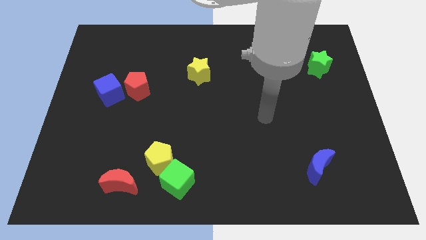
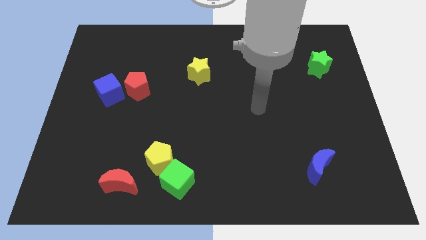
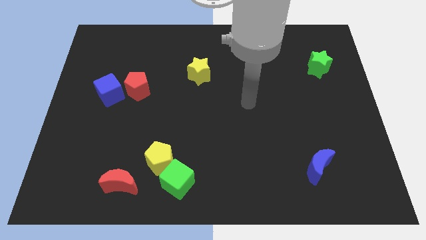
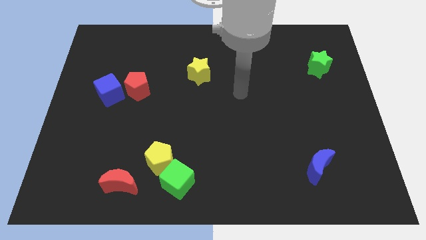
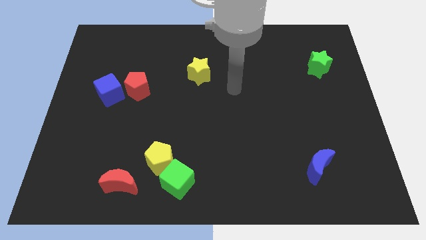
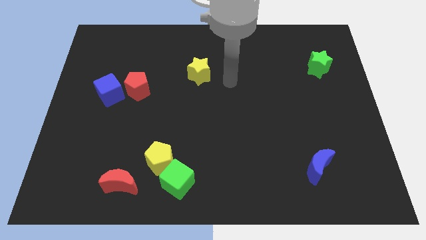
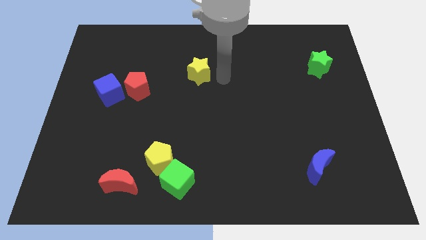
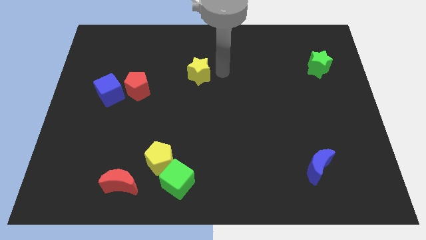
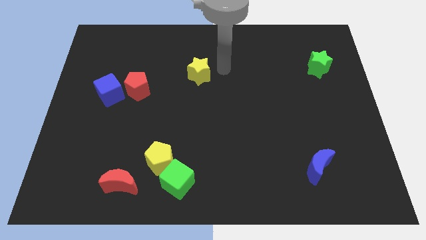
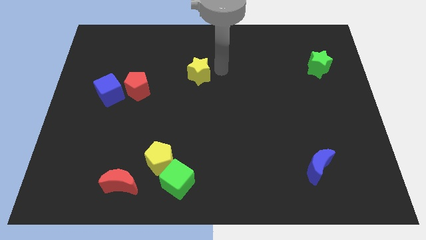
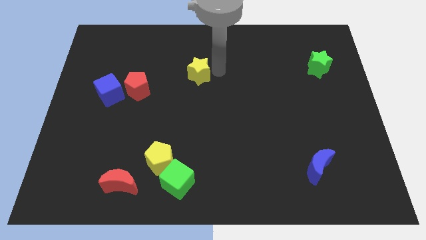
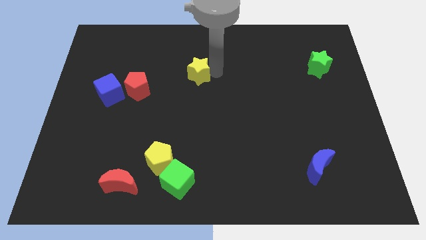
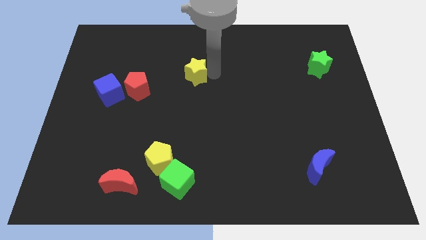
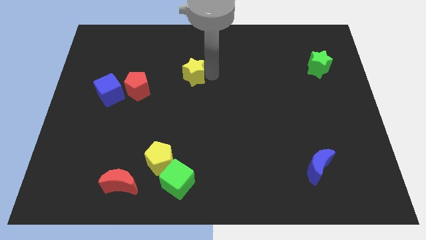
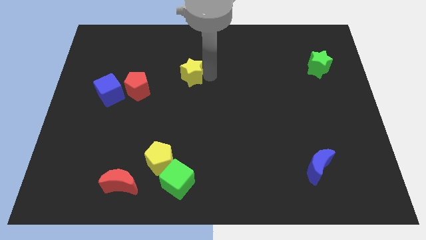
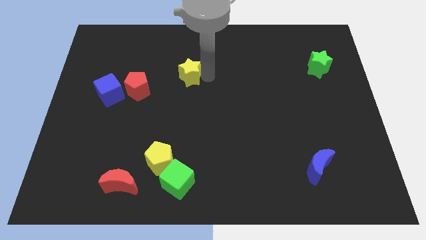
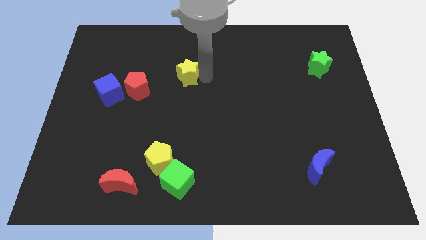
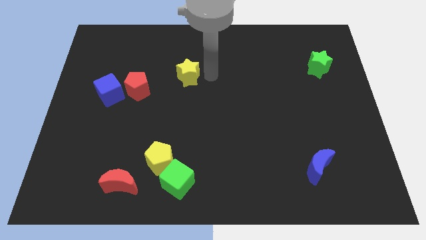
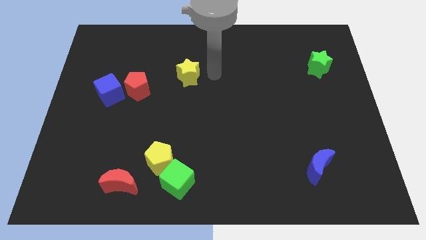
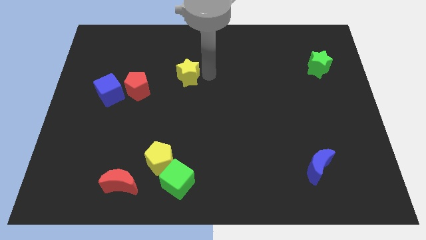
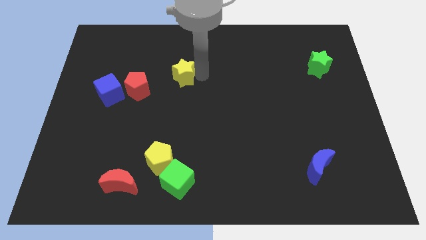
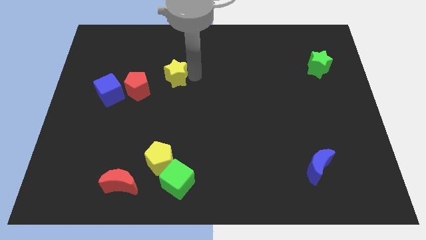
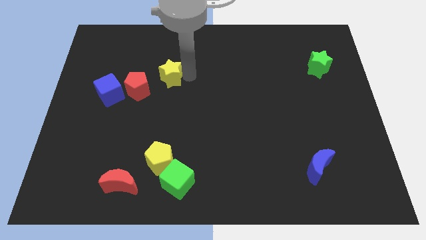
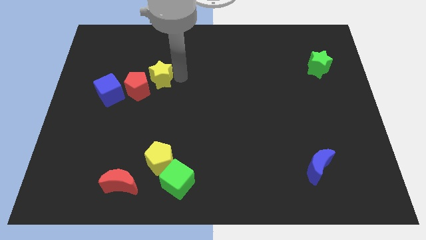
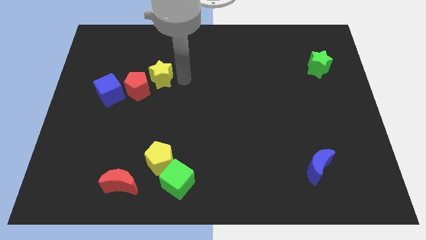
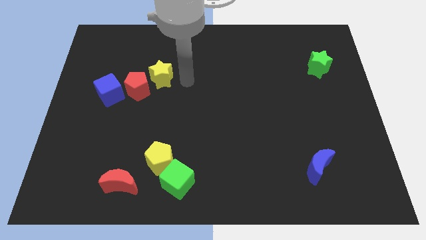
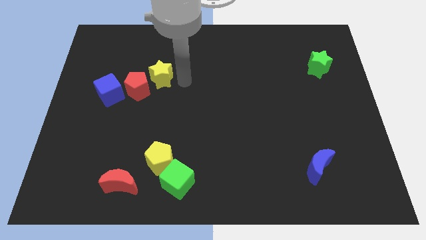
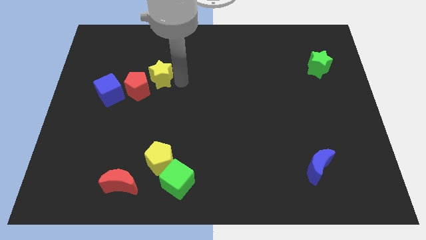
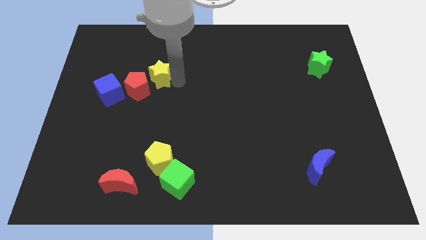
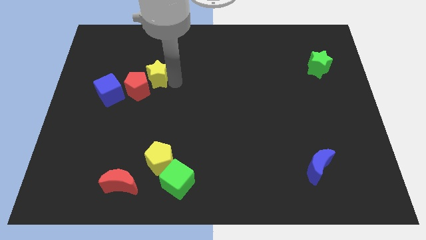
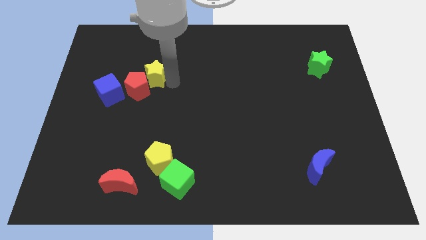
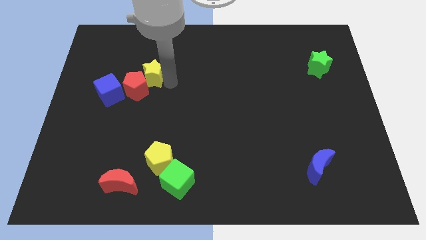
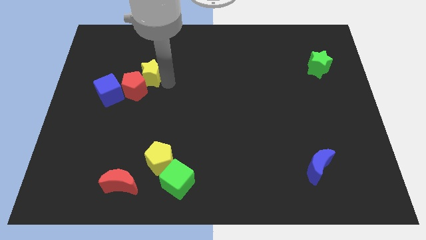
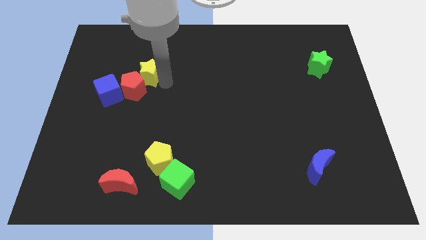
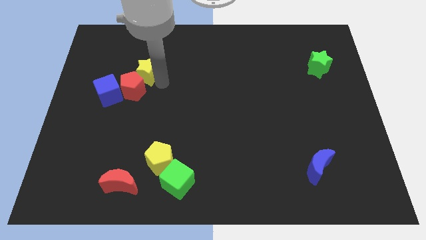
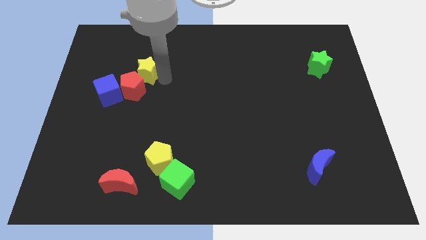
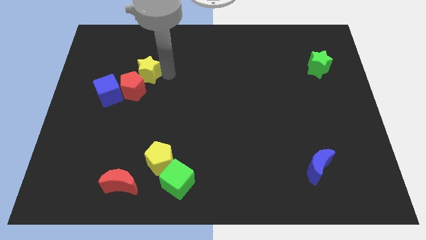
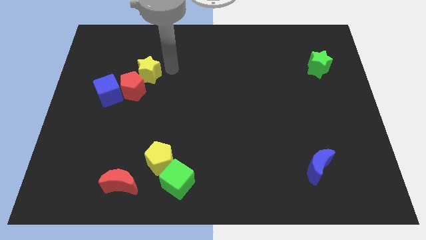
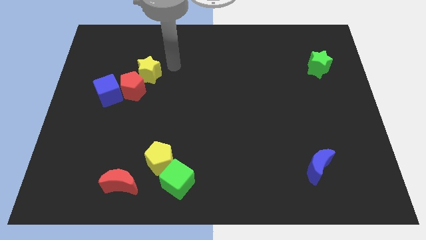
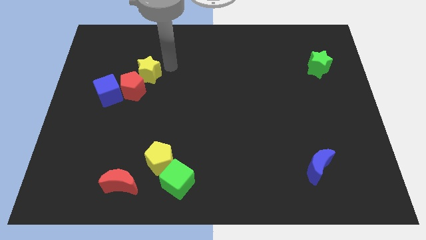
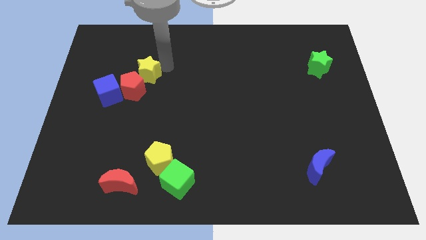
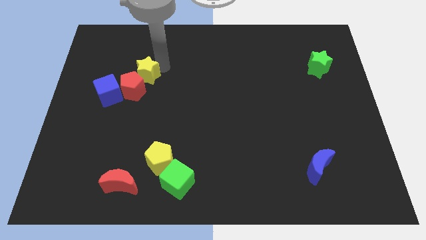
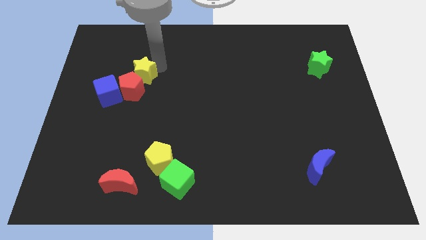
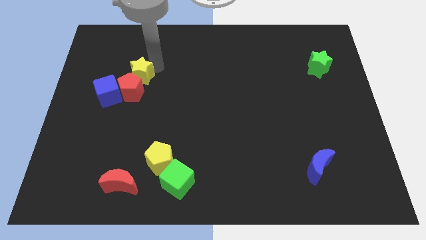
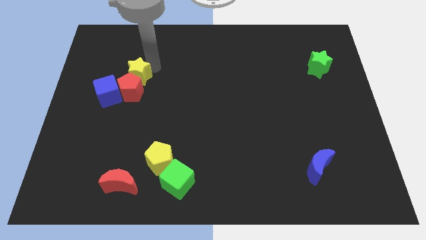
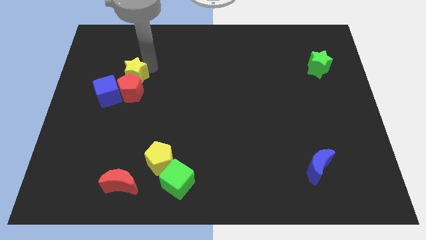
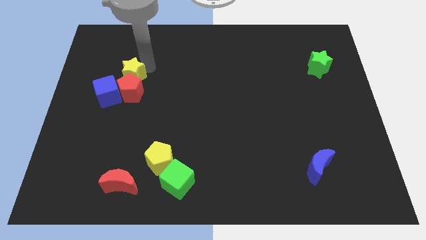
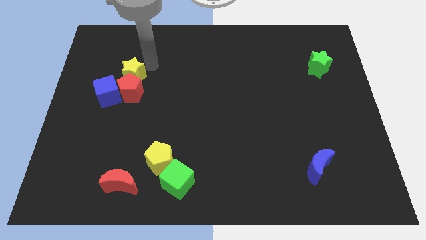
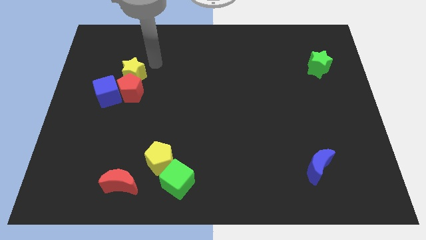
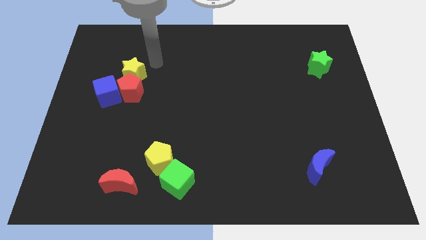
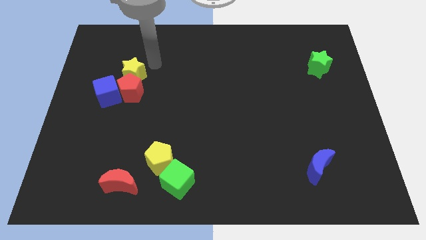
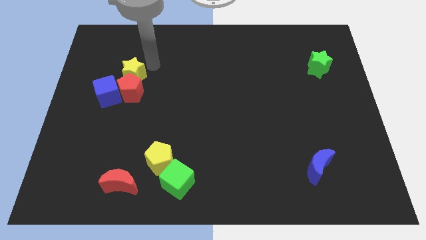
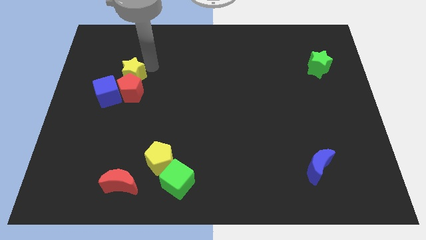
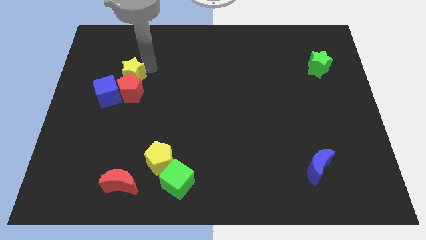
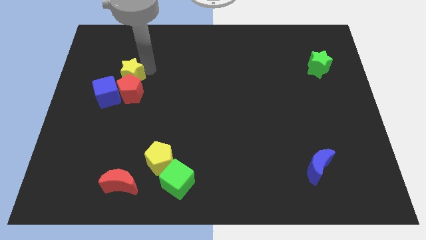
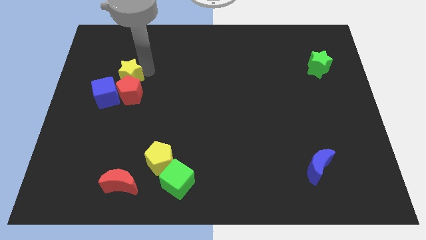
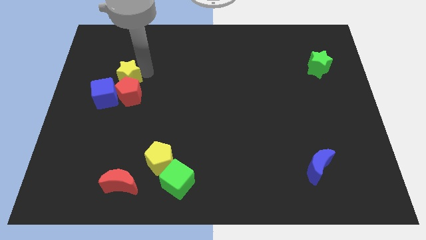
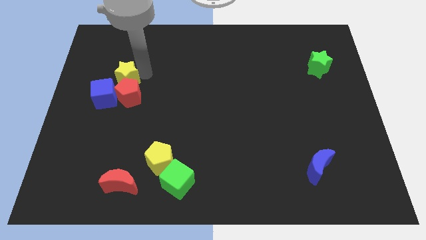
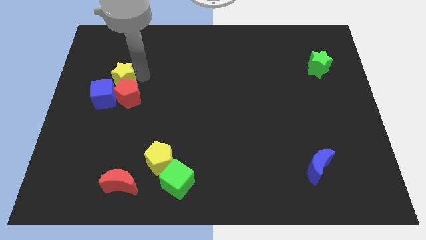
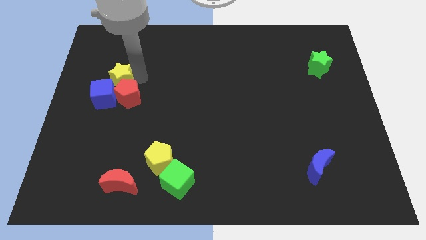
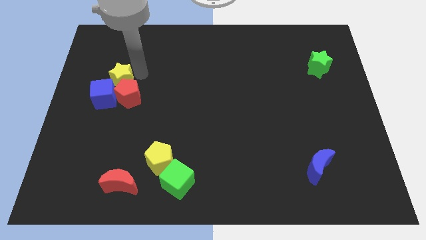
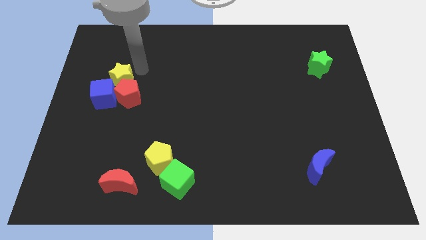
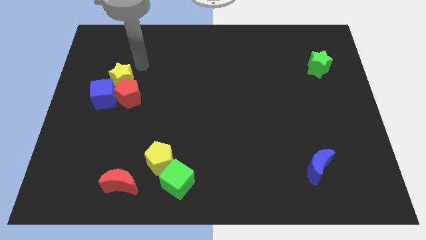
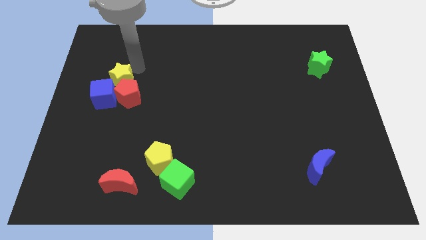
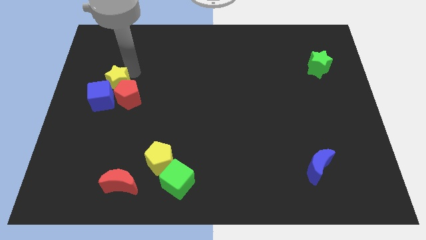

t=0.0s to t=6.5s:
push the yellow star towards the blue cube

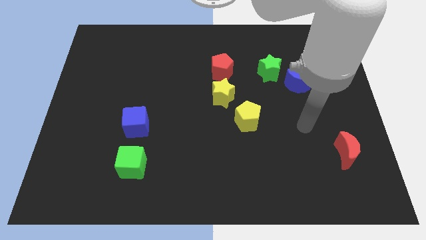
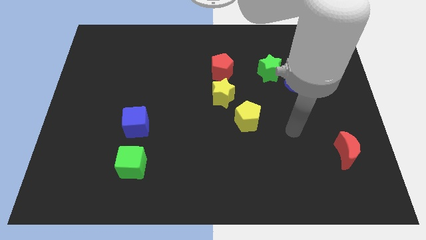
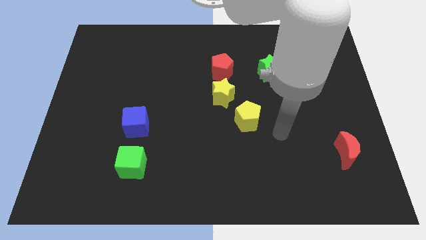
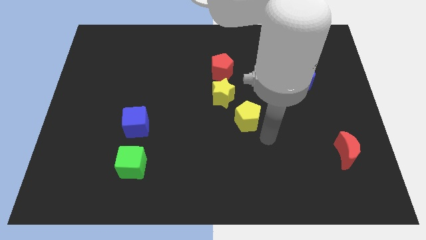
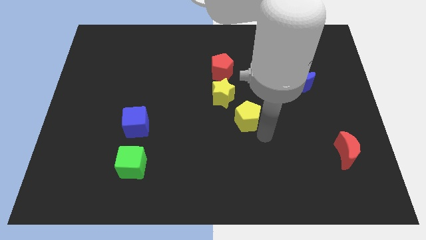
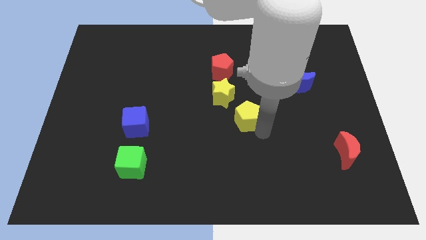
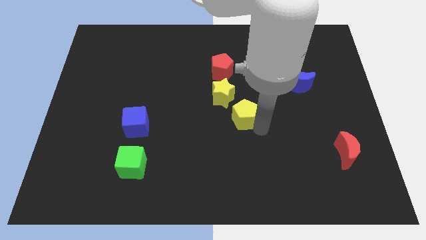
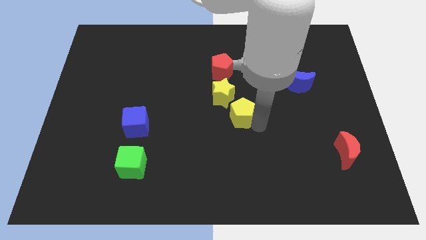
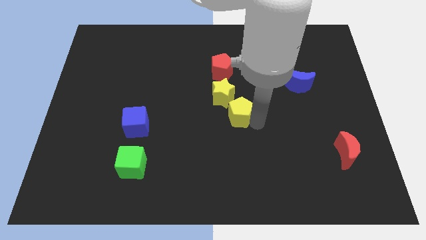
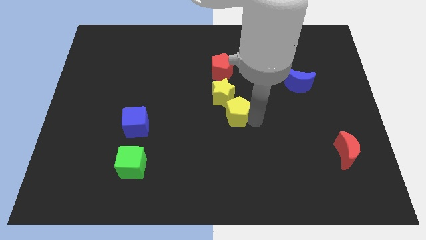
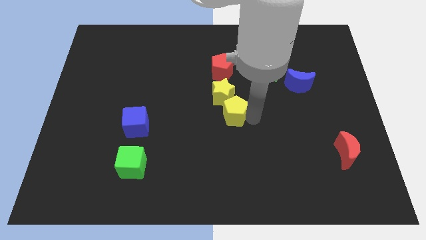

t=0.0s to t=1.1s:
put the yellow pentagon towards the yellow star
